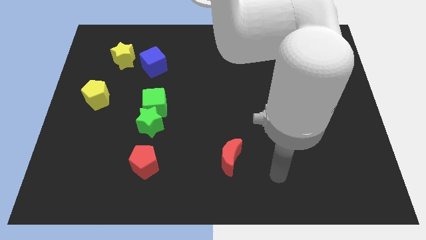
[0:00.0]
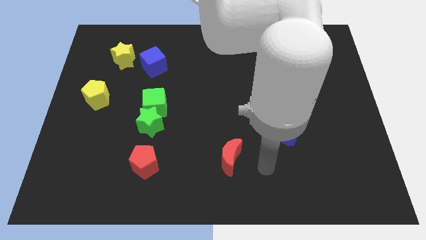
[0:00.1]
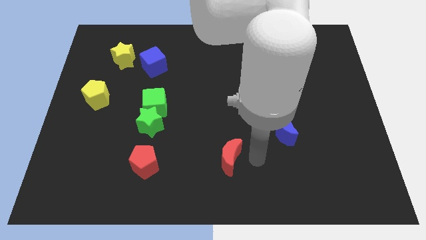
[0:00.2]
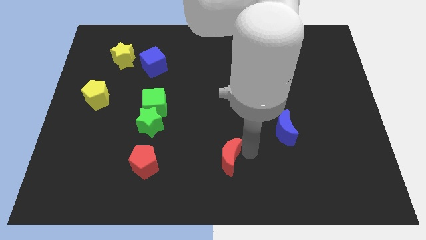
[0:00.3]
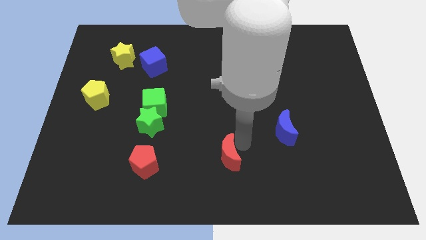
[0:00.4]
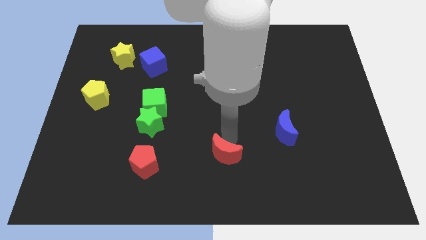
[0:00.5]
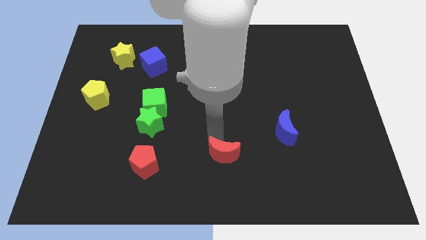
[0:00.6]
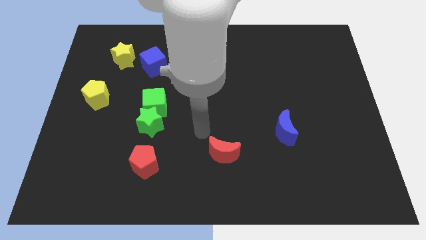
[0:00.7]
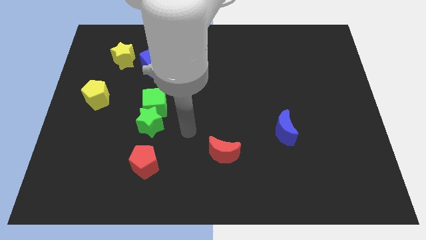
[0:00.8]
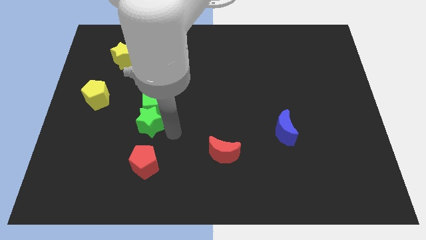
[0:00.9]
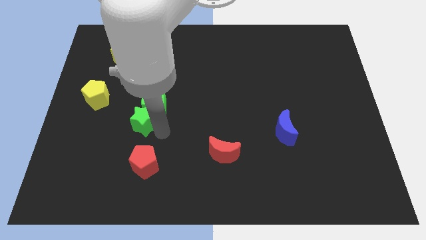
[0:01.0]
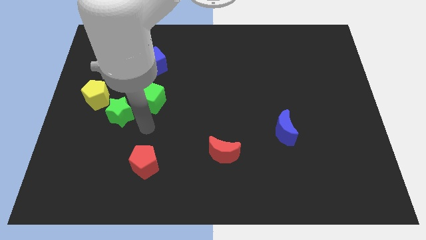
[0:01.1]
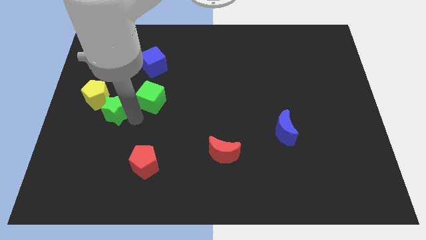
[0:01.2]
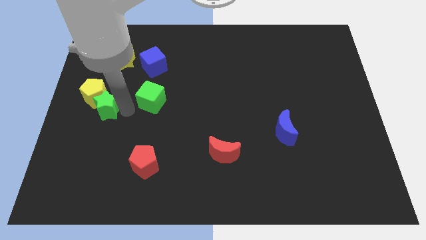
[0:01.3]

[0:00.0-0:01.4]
pull the green cube apart from the green star

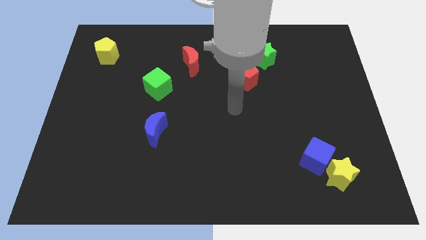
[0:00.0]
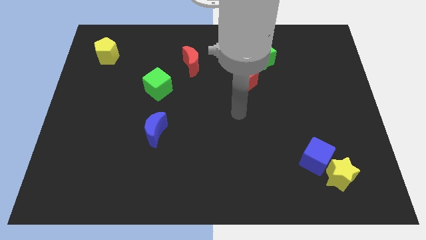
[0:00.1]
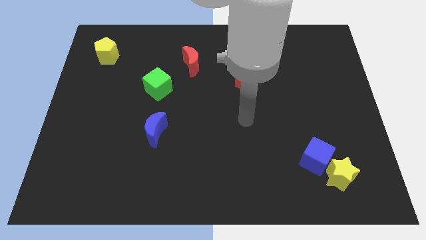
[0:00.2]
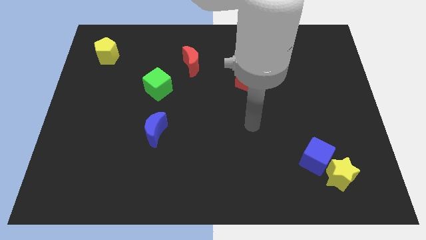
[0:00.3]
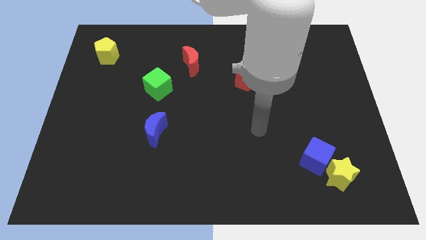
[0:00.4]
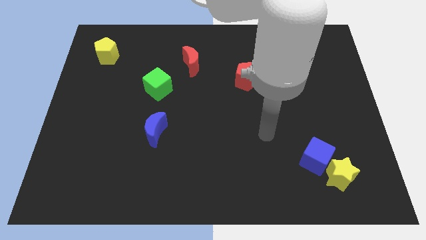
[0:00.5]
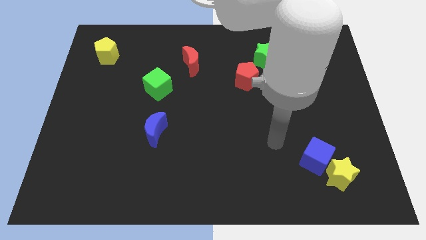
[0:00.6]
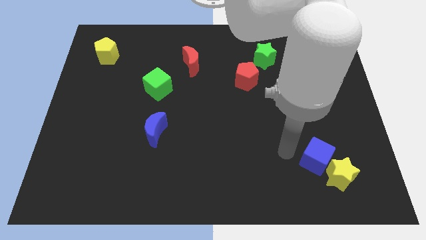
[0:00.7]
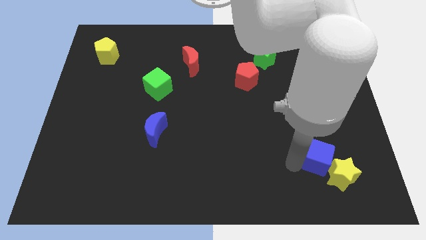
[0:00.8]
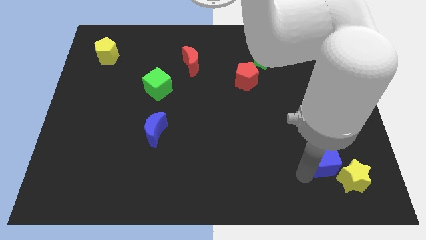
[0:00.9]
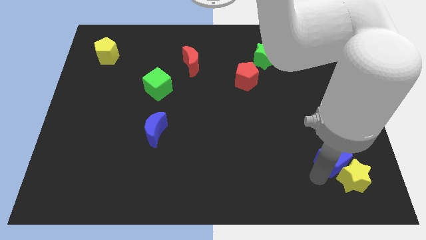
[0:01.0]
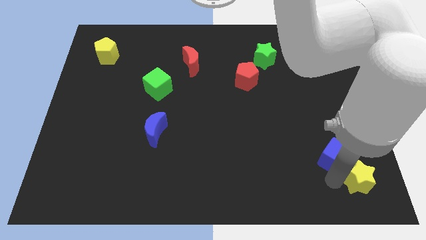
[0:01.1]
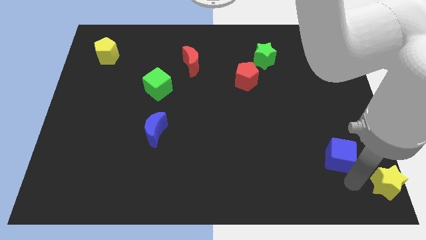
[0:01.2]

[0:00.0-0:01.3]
move the blue cube away from the yellow star

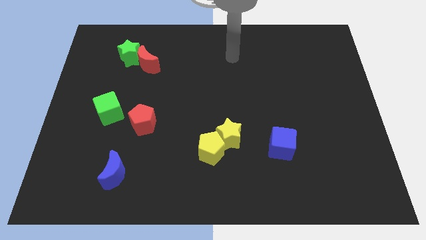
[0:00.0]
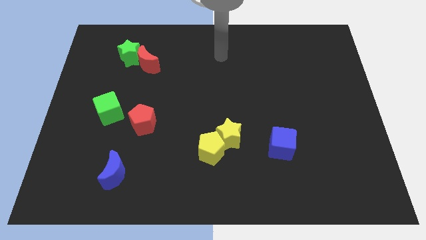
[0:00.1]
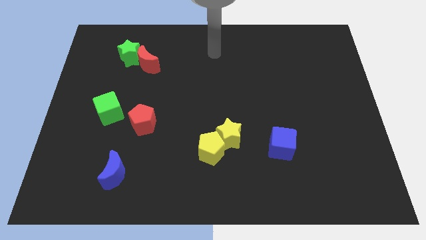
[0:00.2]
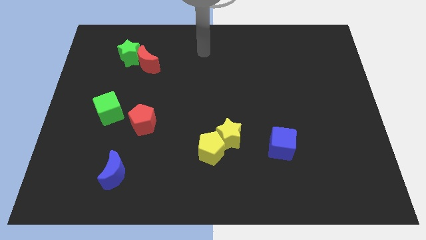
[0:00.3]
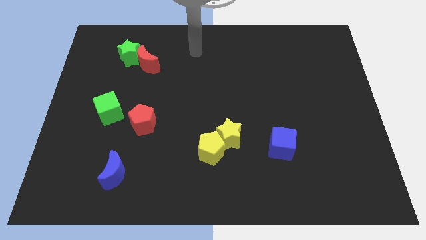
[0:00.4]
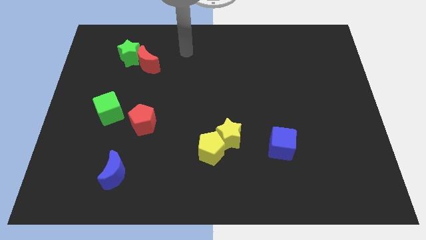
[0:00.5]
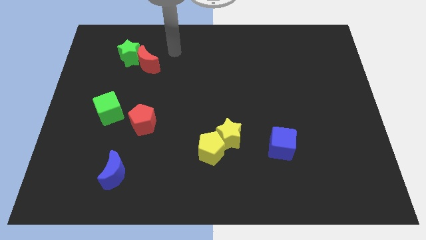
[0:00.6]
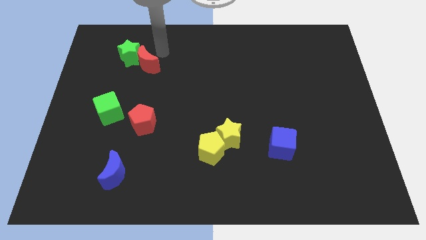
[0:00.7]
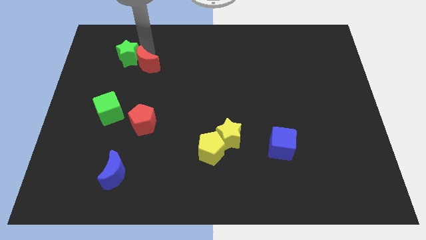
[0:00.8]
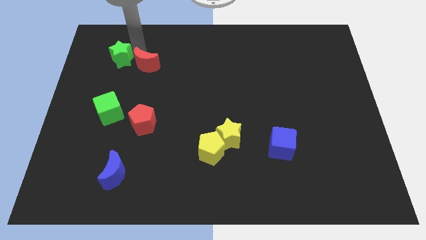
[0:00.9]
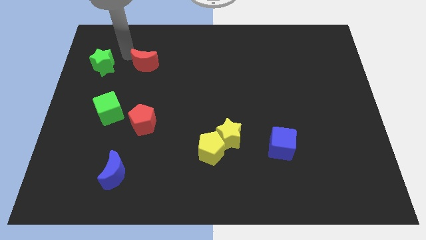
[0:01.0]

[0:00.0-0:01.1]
pull the red moon apart from the green star

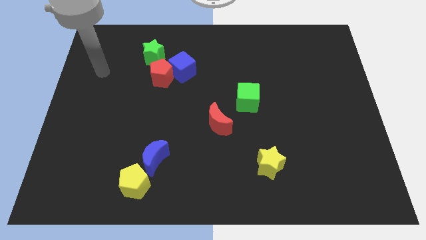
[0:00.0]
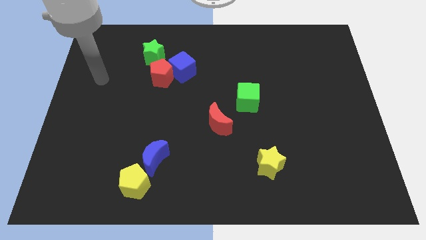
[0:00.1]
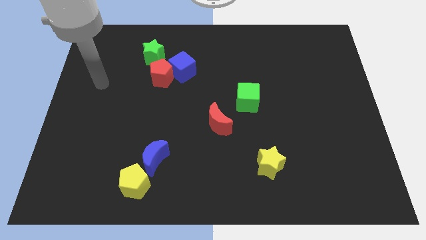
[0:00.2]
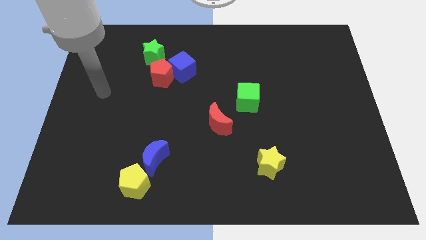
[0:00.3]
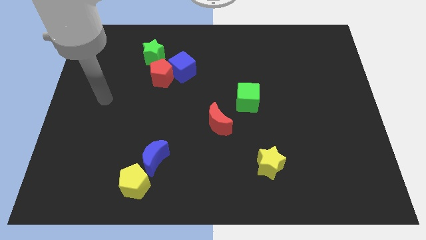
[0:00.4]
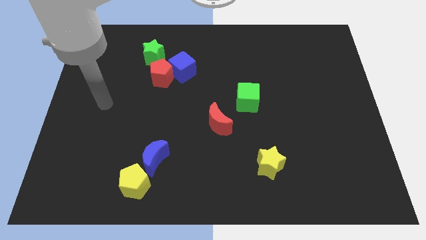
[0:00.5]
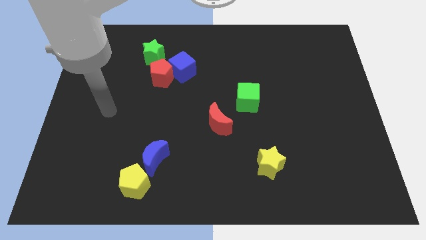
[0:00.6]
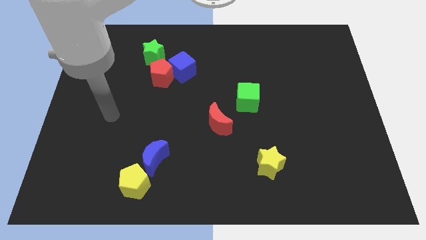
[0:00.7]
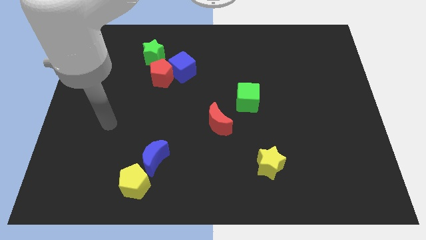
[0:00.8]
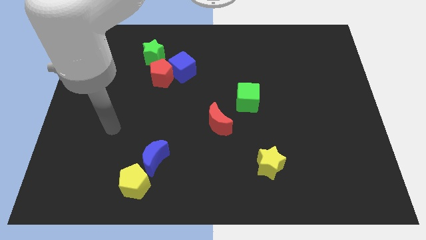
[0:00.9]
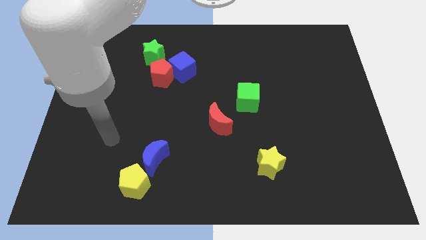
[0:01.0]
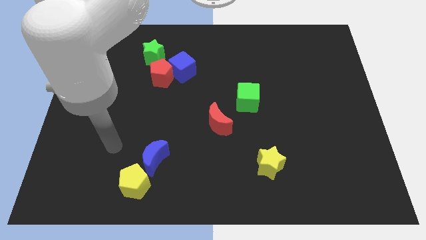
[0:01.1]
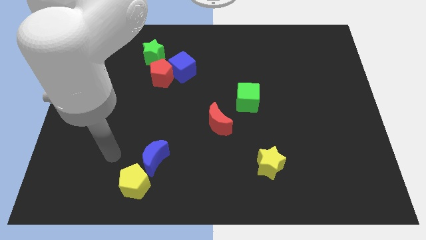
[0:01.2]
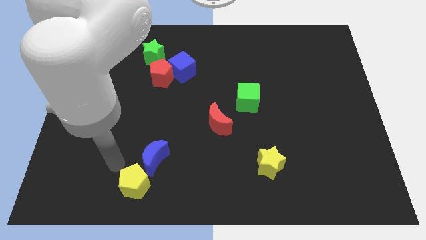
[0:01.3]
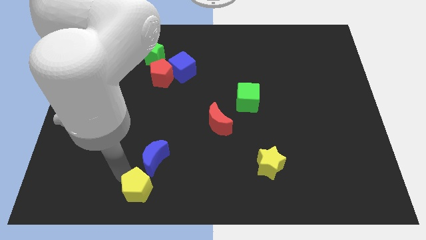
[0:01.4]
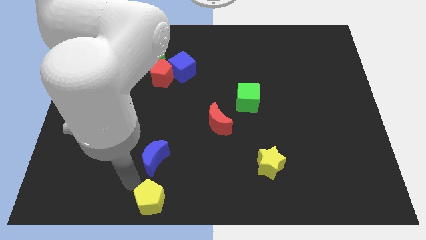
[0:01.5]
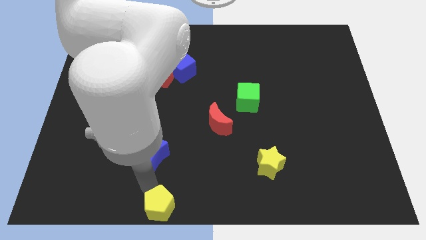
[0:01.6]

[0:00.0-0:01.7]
pull the blue moon apart from the yellow pentagon

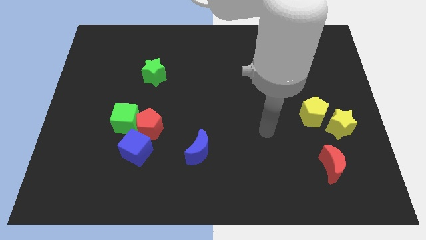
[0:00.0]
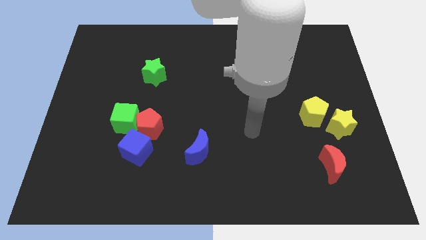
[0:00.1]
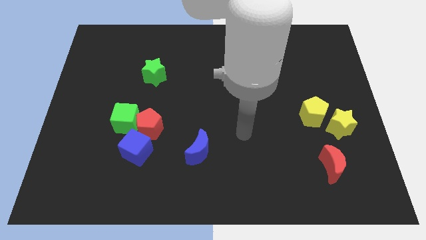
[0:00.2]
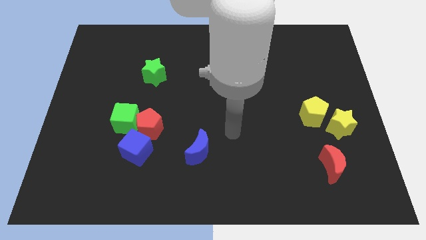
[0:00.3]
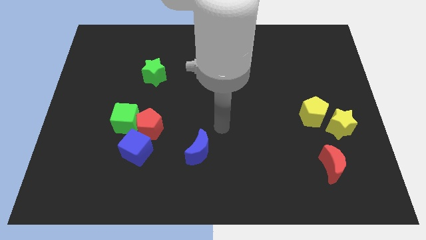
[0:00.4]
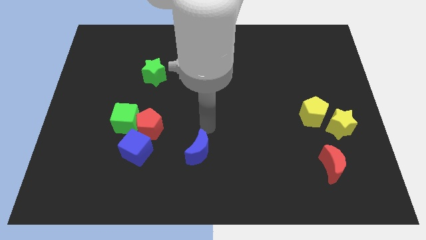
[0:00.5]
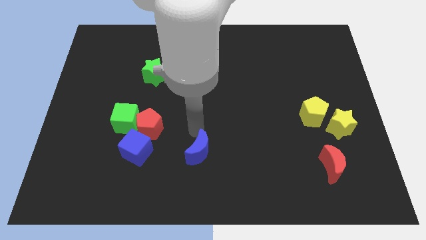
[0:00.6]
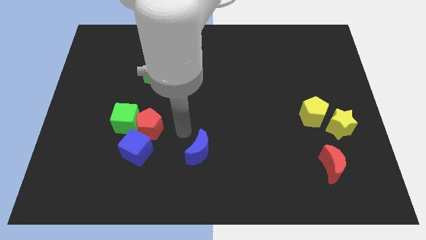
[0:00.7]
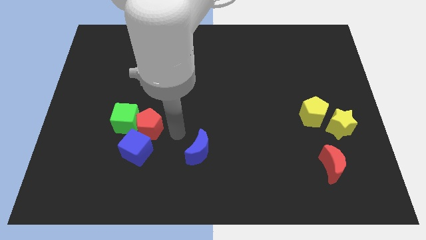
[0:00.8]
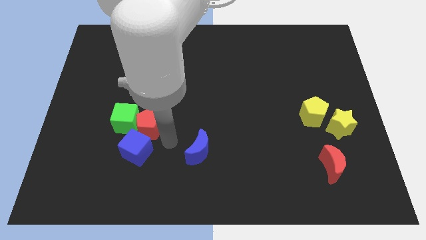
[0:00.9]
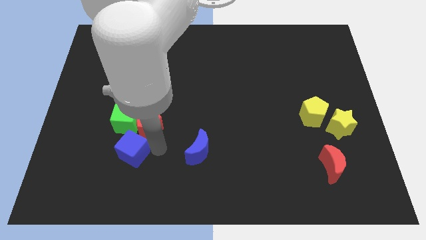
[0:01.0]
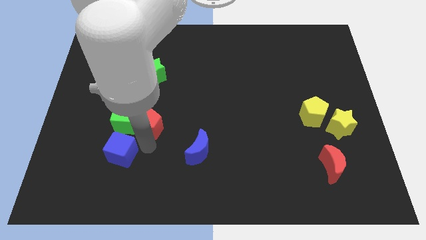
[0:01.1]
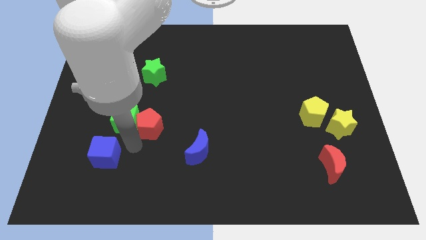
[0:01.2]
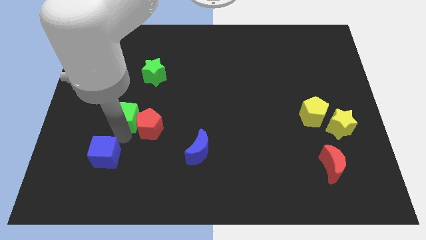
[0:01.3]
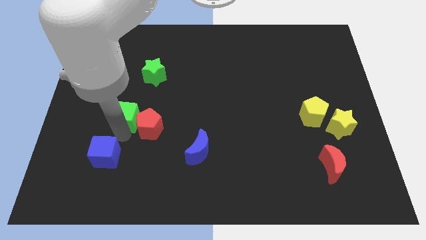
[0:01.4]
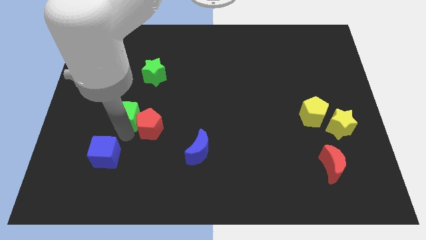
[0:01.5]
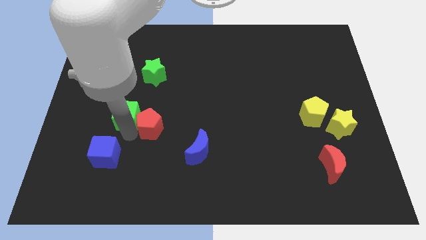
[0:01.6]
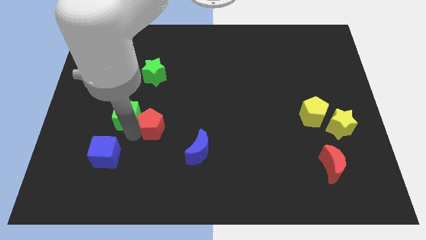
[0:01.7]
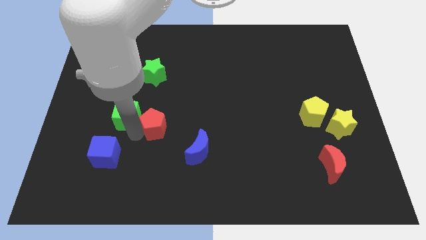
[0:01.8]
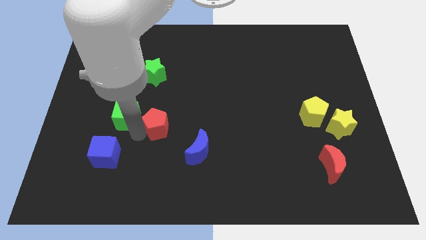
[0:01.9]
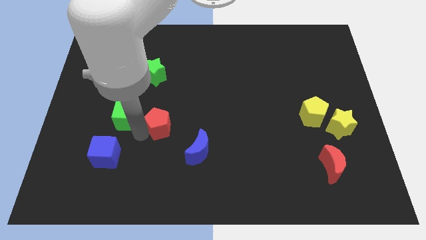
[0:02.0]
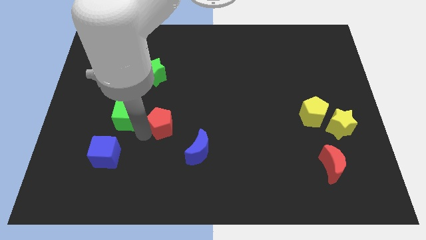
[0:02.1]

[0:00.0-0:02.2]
pull the red pentagon apart from the green cube and blue cube

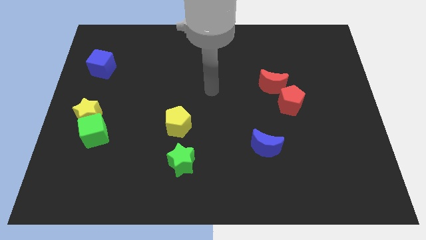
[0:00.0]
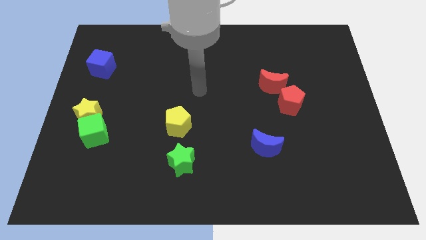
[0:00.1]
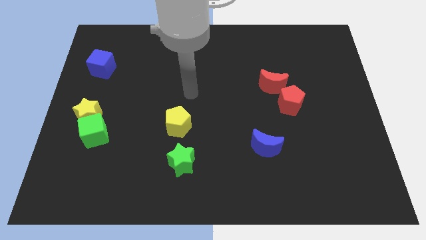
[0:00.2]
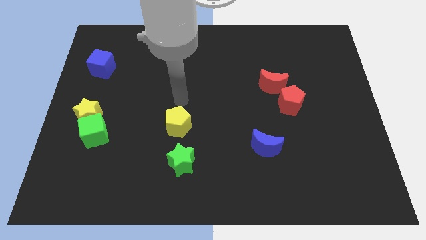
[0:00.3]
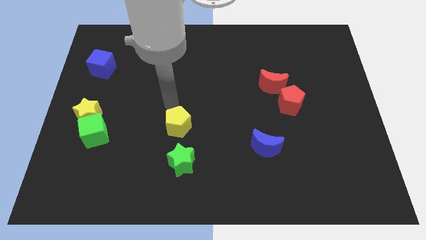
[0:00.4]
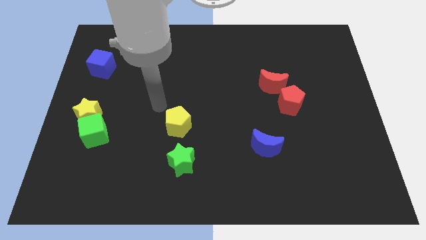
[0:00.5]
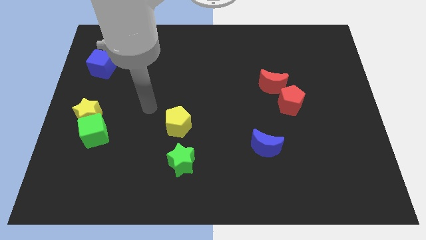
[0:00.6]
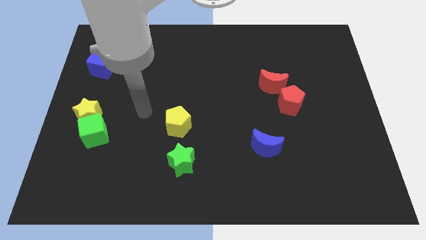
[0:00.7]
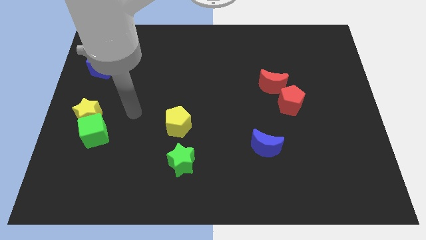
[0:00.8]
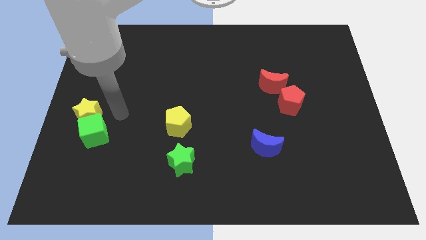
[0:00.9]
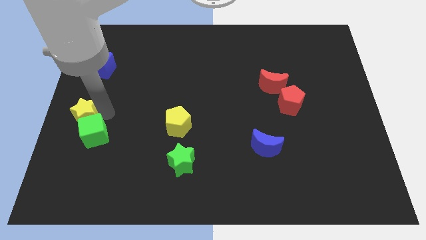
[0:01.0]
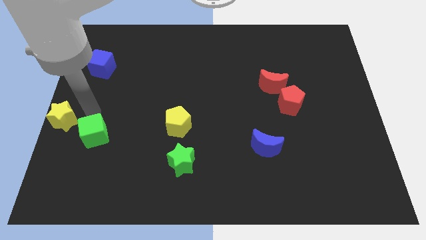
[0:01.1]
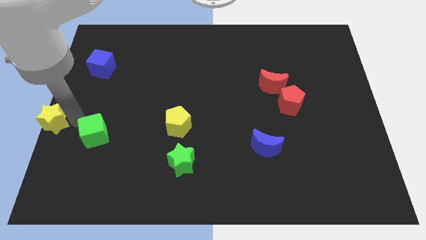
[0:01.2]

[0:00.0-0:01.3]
move the green cube away from the yellow star

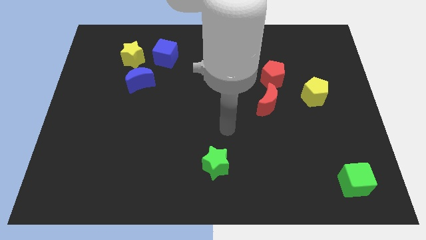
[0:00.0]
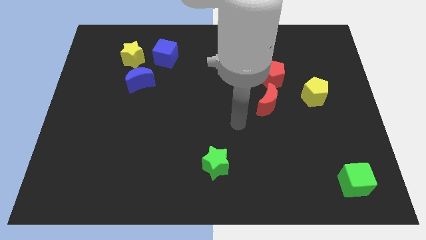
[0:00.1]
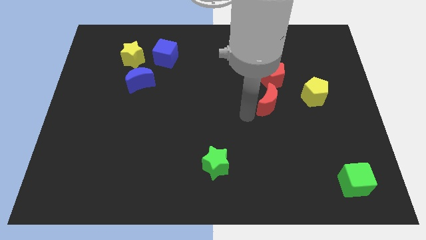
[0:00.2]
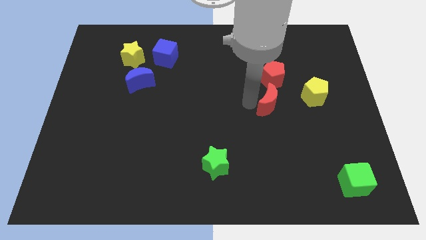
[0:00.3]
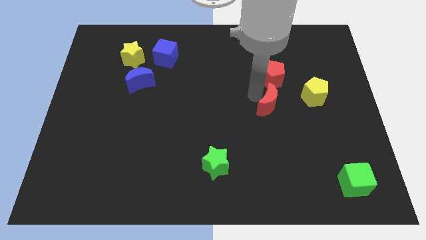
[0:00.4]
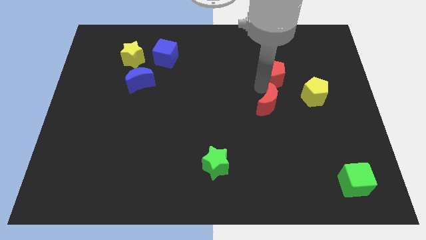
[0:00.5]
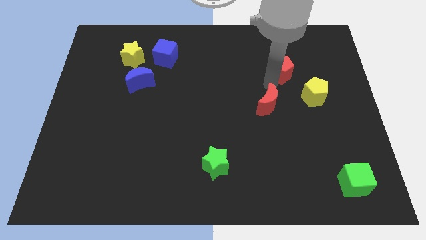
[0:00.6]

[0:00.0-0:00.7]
move the red moon away from the red pentagon
